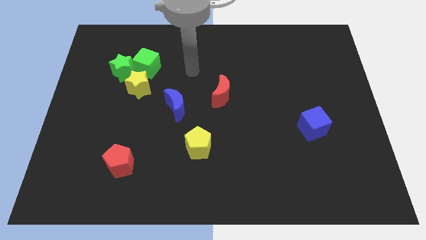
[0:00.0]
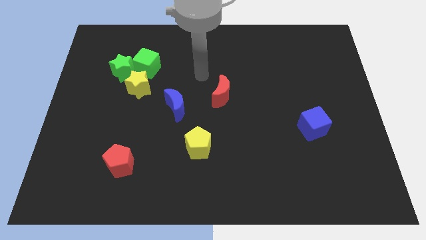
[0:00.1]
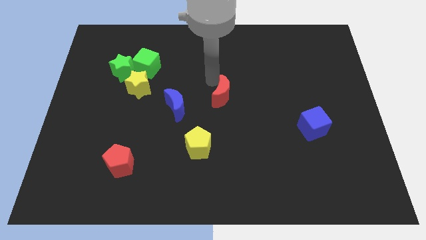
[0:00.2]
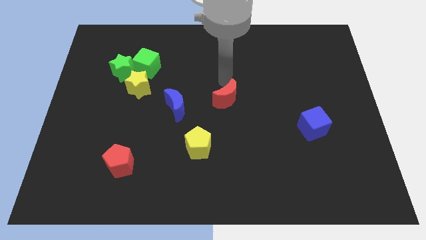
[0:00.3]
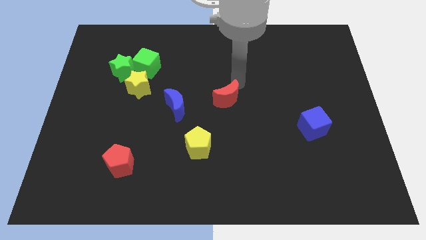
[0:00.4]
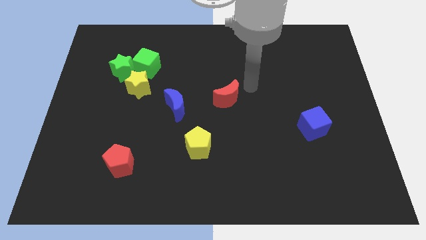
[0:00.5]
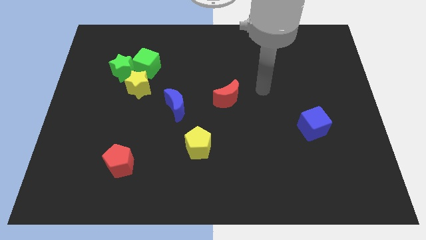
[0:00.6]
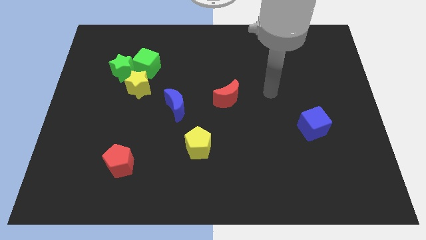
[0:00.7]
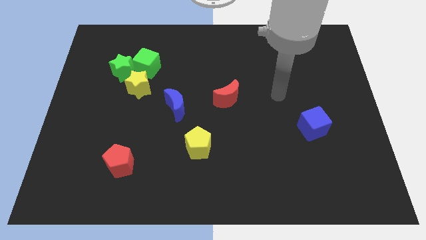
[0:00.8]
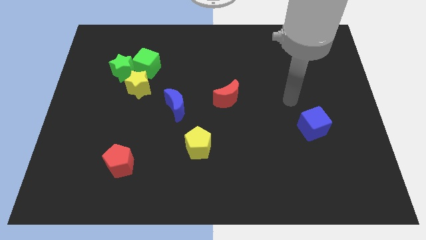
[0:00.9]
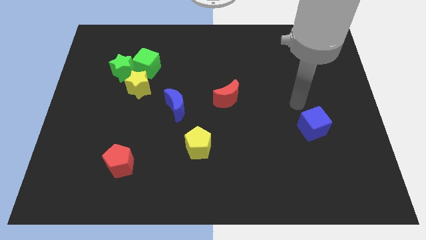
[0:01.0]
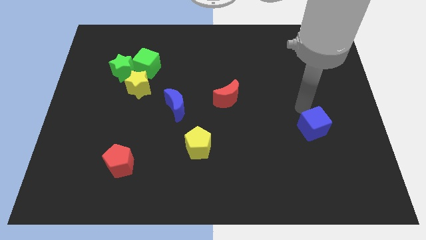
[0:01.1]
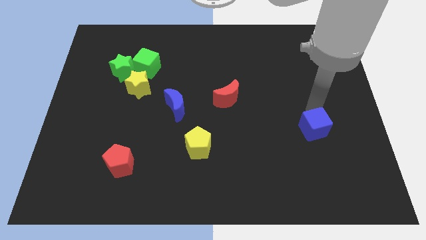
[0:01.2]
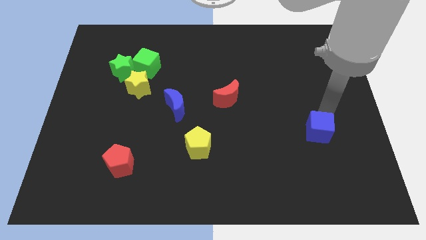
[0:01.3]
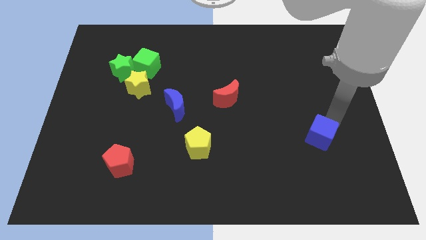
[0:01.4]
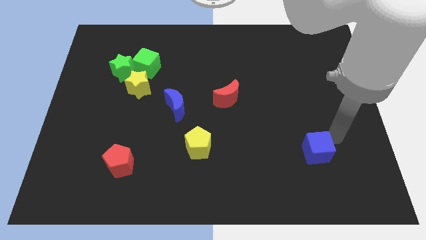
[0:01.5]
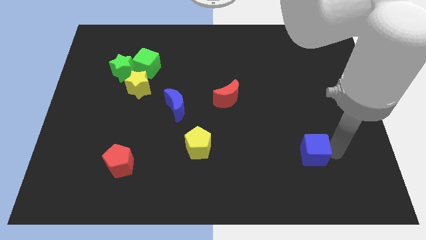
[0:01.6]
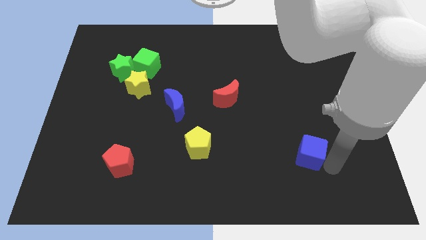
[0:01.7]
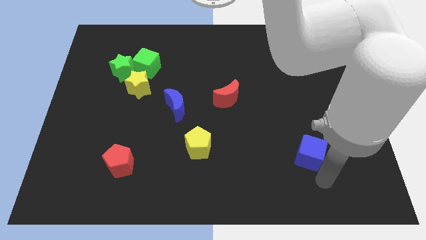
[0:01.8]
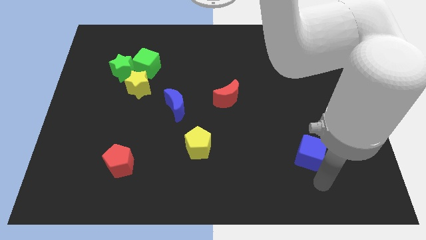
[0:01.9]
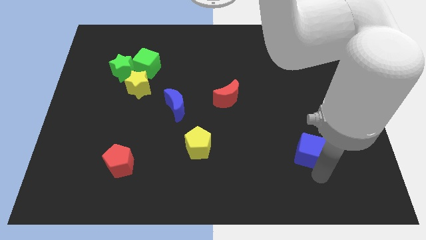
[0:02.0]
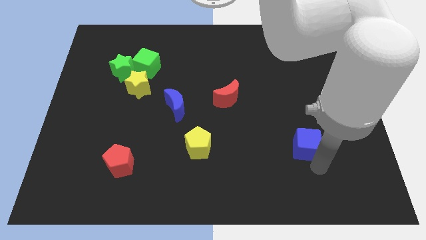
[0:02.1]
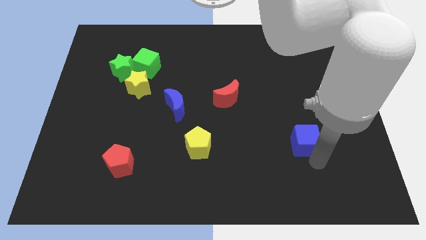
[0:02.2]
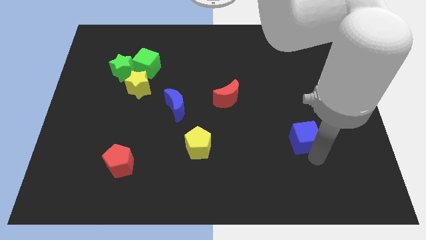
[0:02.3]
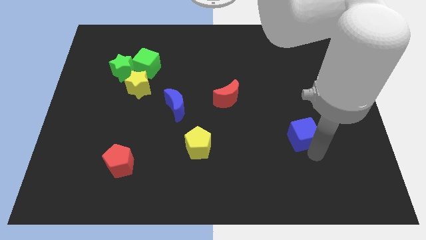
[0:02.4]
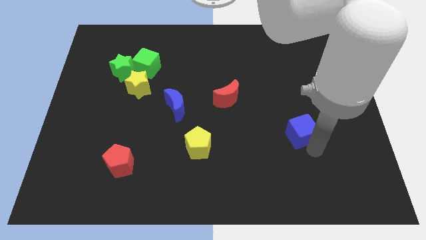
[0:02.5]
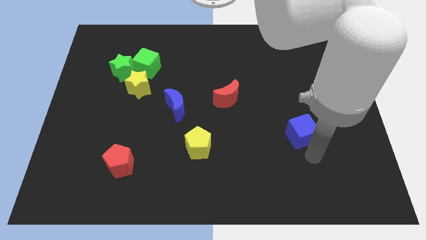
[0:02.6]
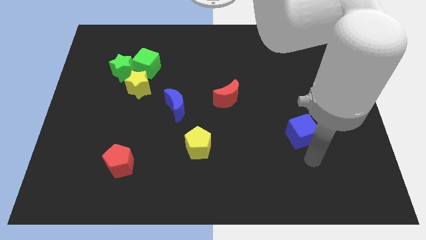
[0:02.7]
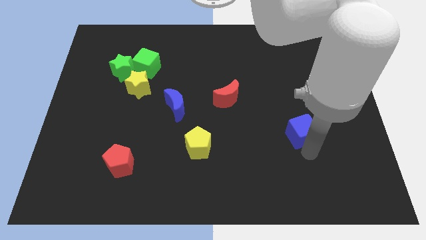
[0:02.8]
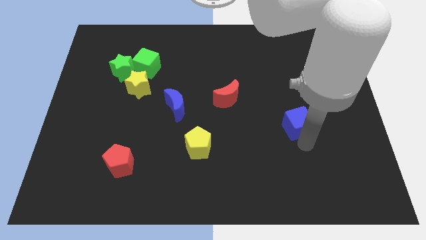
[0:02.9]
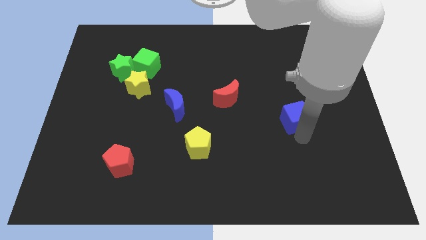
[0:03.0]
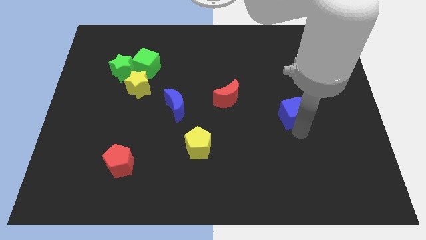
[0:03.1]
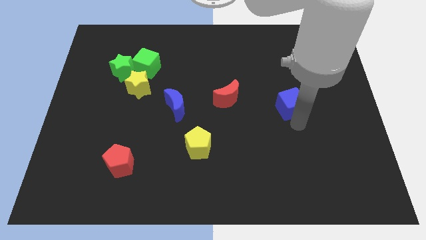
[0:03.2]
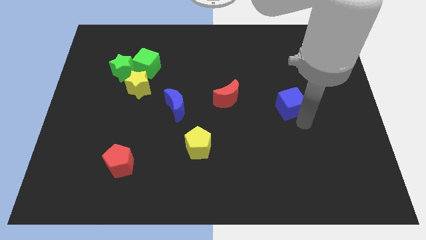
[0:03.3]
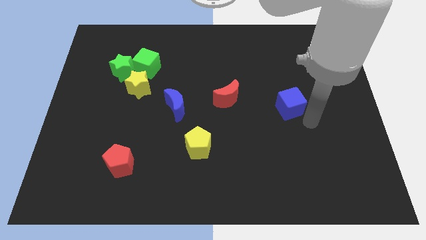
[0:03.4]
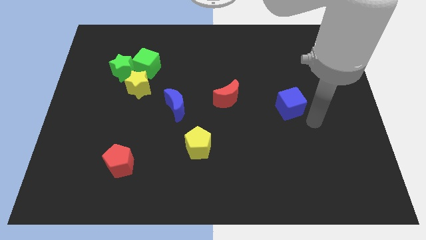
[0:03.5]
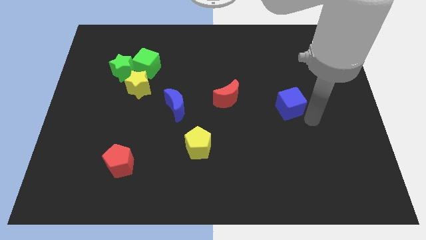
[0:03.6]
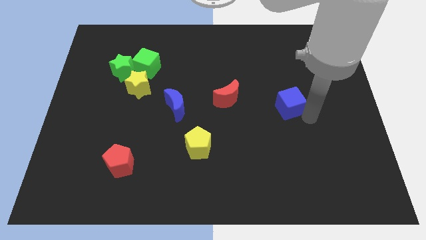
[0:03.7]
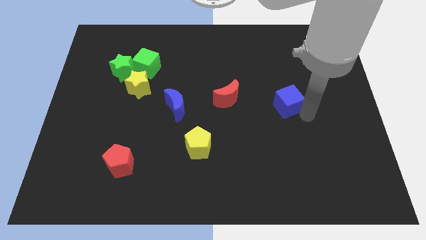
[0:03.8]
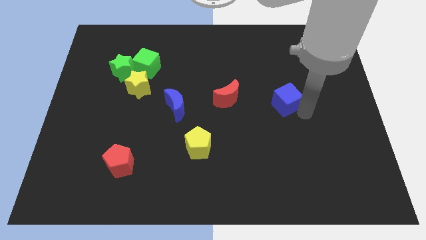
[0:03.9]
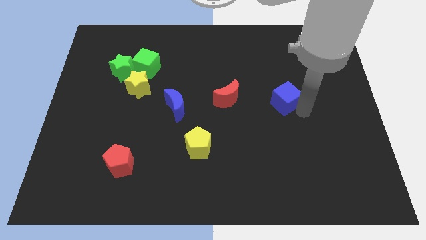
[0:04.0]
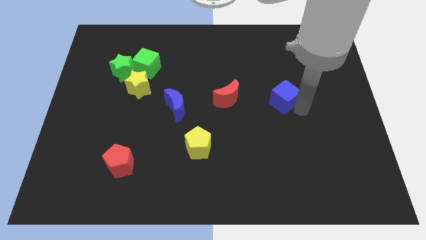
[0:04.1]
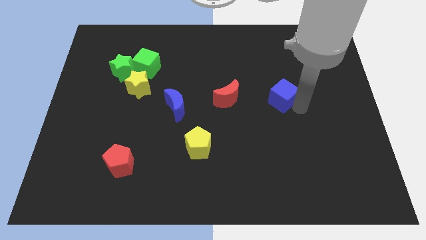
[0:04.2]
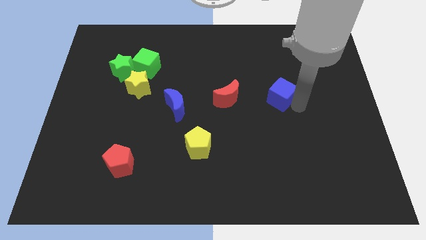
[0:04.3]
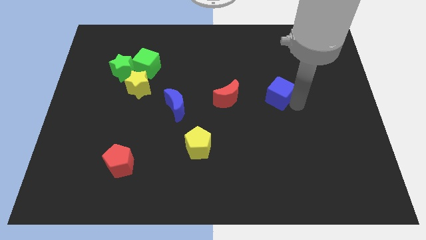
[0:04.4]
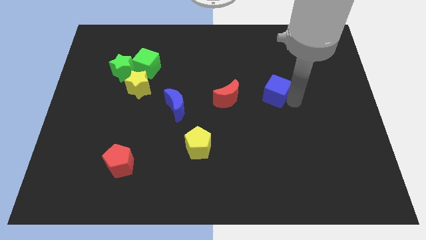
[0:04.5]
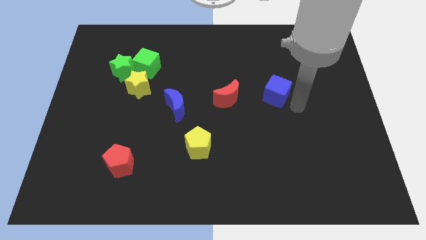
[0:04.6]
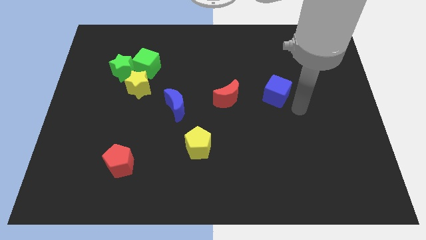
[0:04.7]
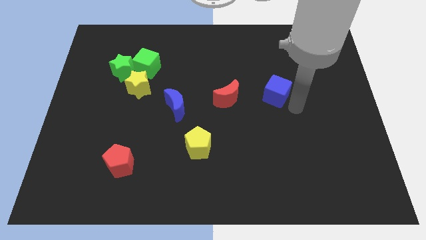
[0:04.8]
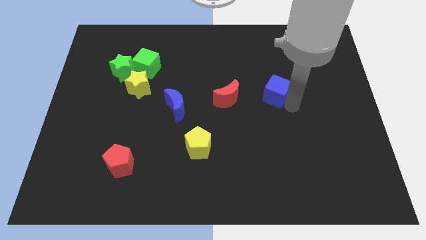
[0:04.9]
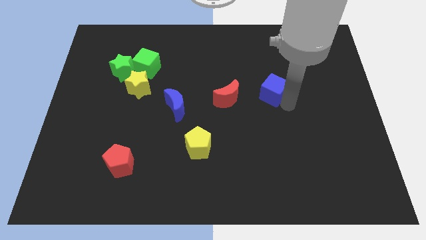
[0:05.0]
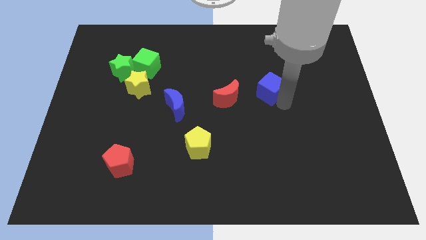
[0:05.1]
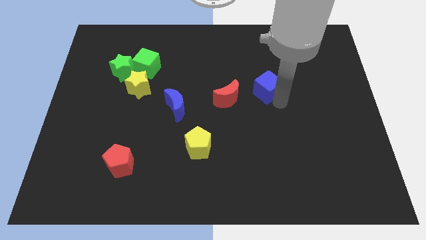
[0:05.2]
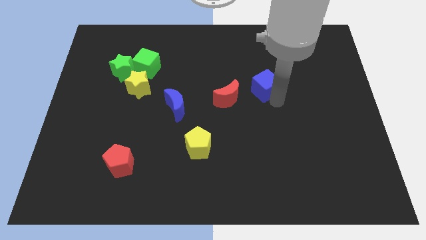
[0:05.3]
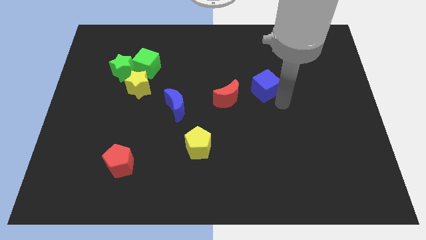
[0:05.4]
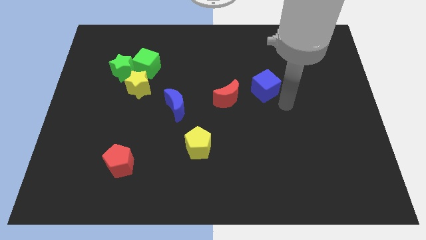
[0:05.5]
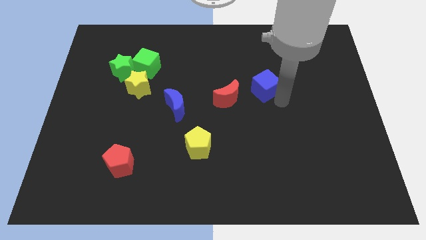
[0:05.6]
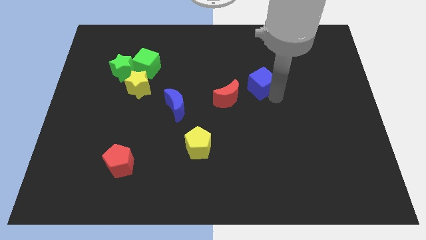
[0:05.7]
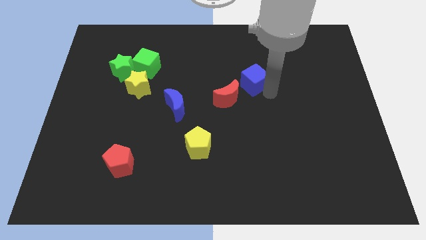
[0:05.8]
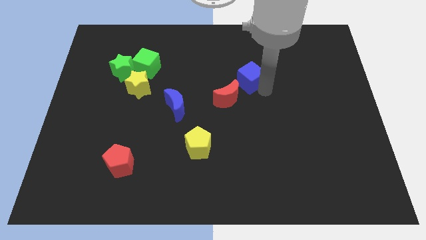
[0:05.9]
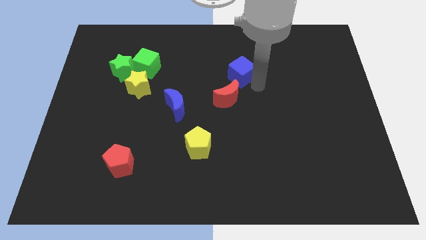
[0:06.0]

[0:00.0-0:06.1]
slide the blue cube upwards and then to the left

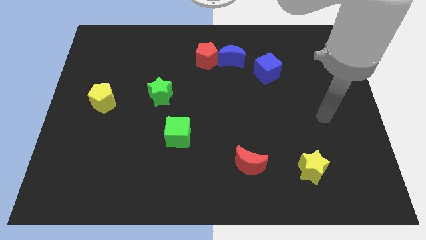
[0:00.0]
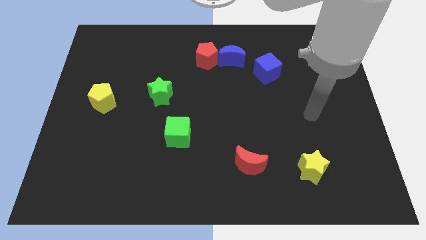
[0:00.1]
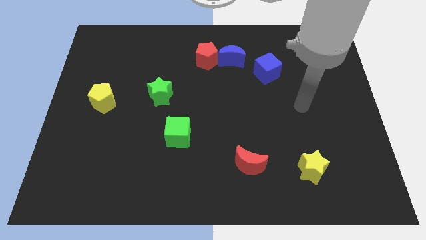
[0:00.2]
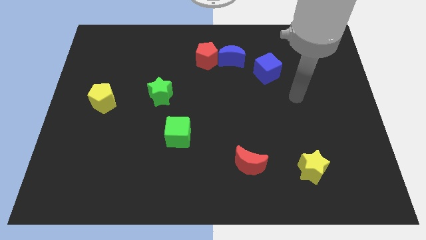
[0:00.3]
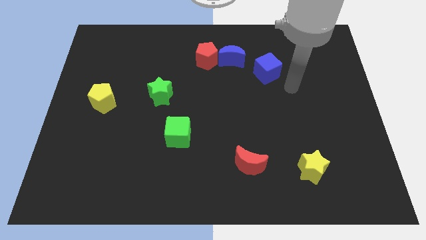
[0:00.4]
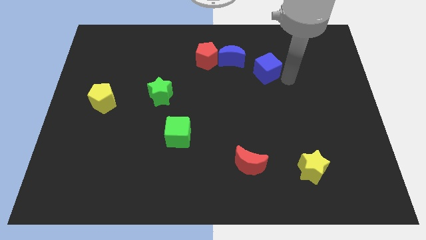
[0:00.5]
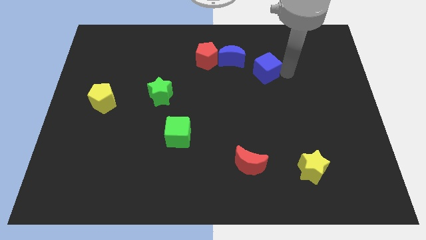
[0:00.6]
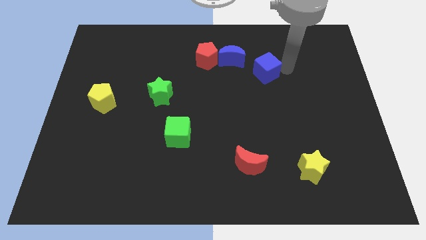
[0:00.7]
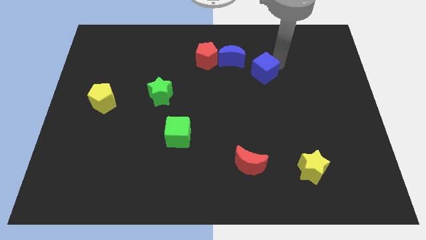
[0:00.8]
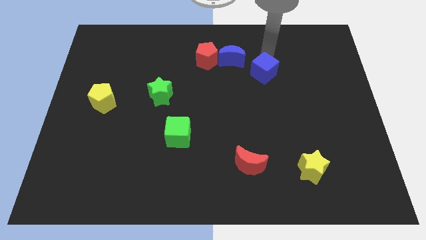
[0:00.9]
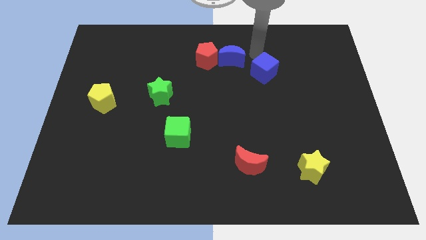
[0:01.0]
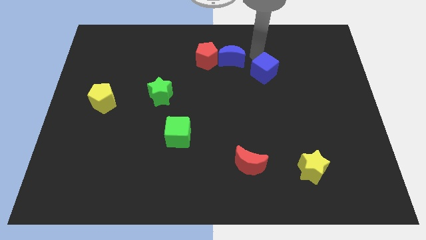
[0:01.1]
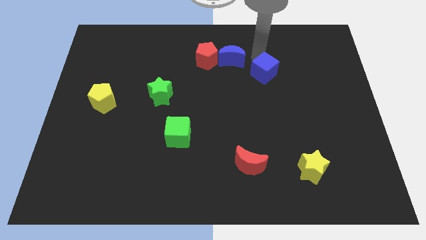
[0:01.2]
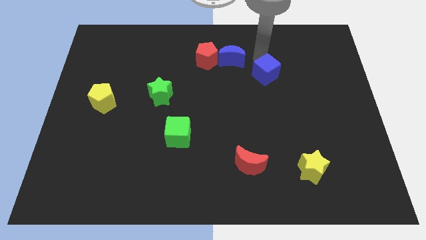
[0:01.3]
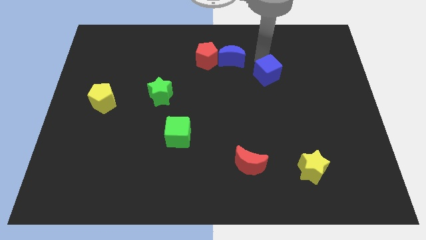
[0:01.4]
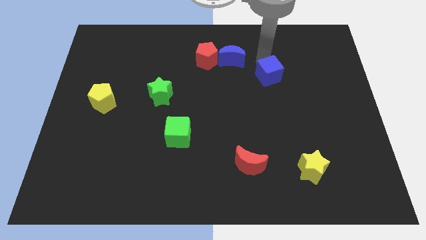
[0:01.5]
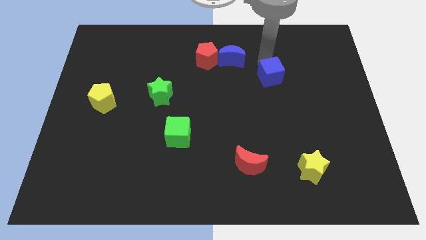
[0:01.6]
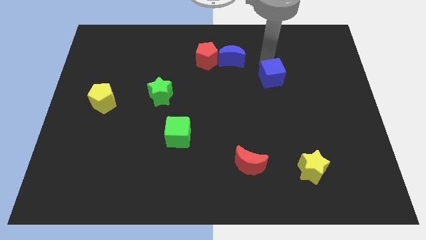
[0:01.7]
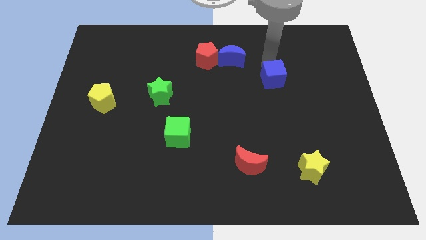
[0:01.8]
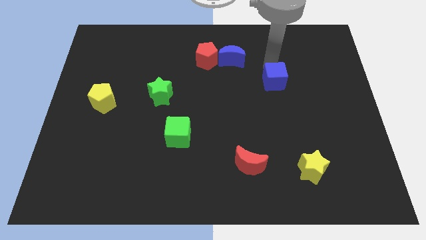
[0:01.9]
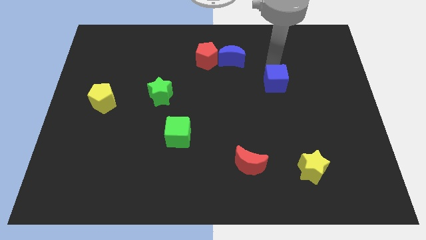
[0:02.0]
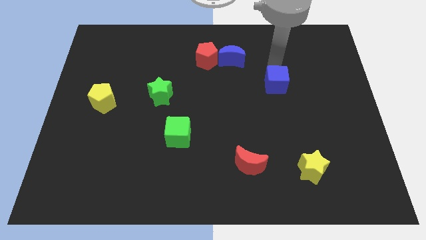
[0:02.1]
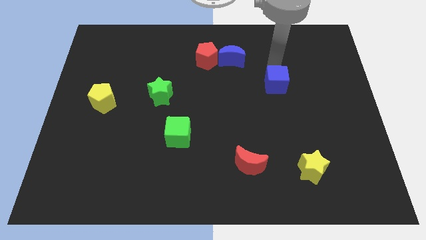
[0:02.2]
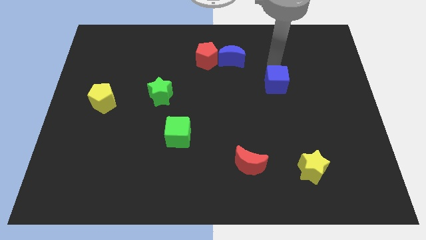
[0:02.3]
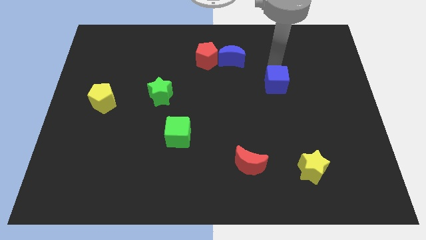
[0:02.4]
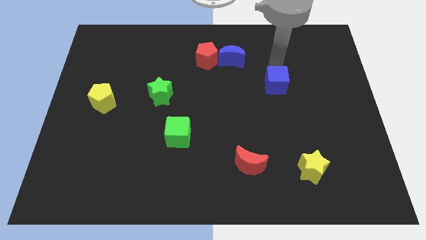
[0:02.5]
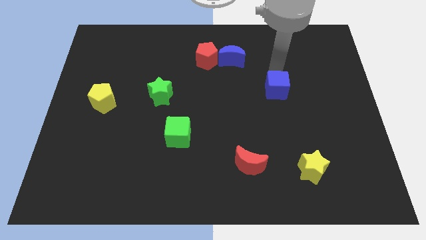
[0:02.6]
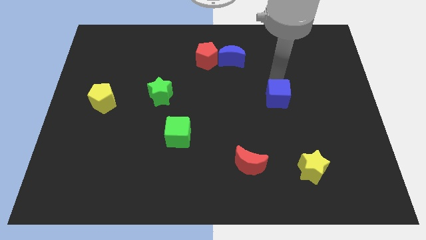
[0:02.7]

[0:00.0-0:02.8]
slide the blue cube downwards a bit
